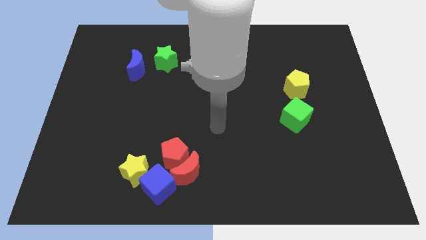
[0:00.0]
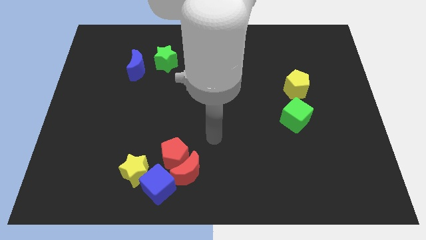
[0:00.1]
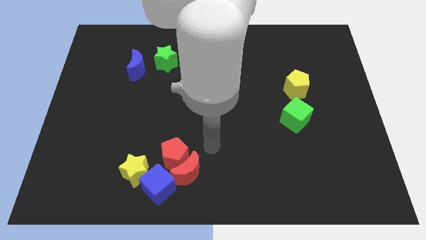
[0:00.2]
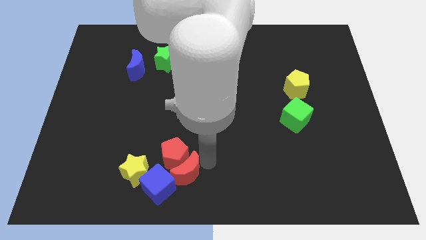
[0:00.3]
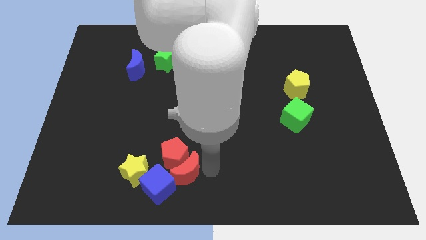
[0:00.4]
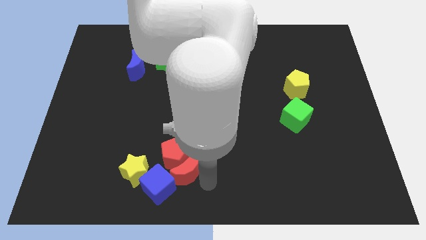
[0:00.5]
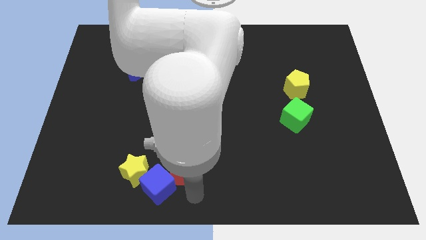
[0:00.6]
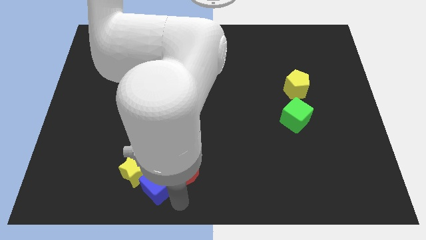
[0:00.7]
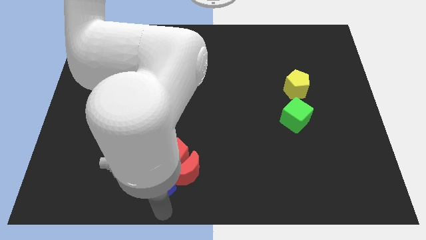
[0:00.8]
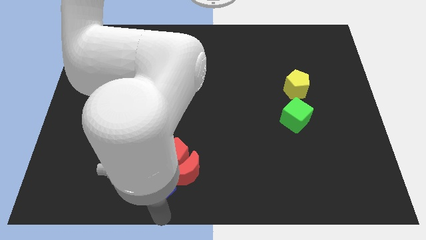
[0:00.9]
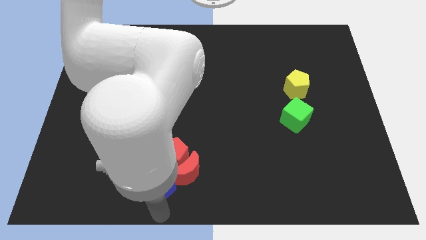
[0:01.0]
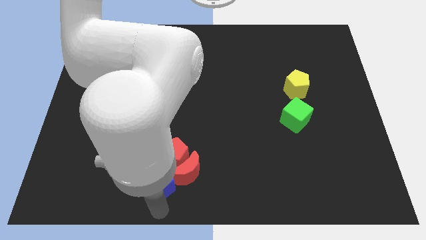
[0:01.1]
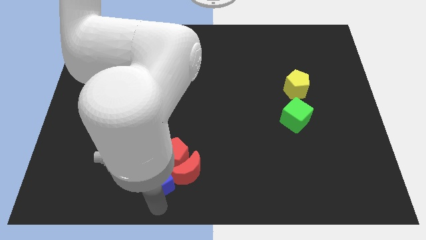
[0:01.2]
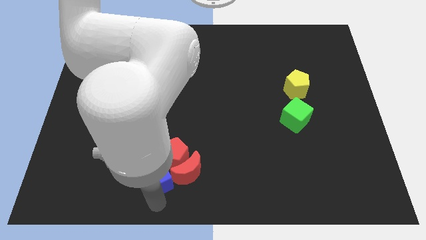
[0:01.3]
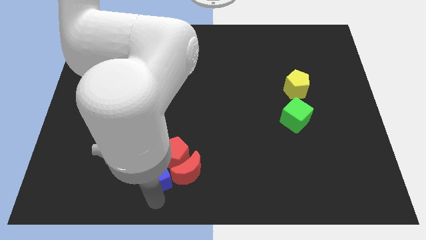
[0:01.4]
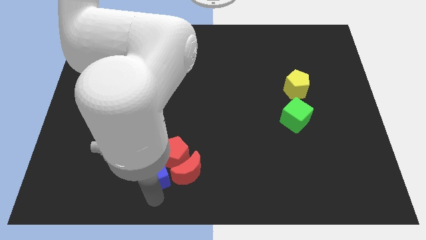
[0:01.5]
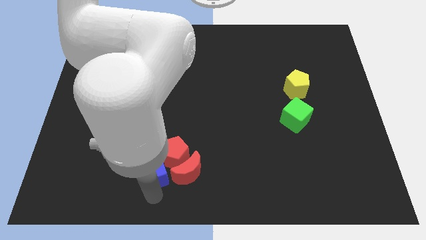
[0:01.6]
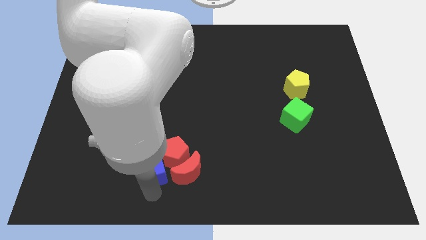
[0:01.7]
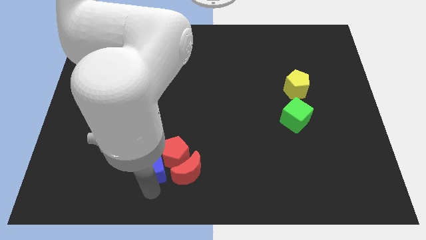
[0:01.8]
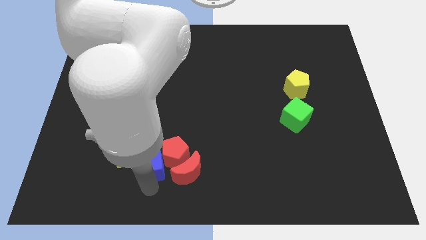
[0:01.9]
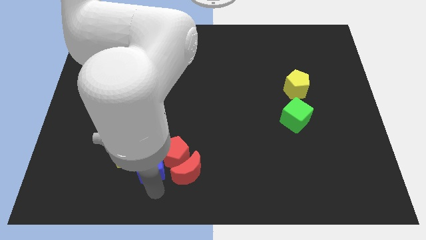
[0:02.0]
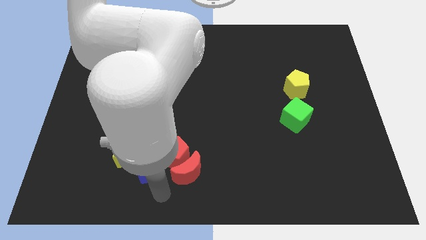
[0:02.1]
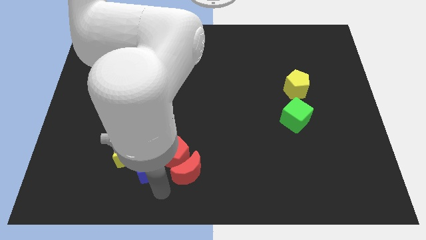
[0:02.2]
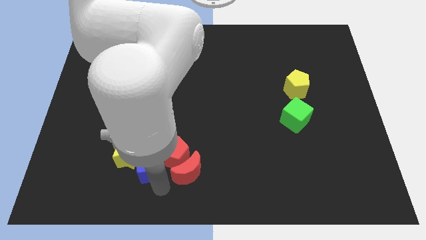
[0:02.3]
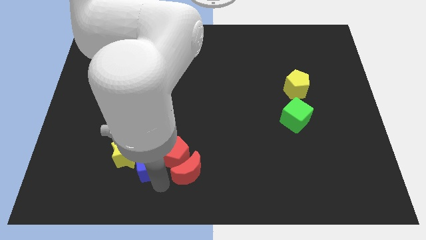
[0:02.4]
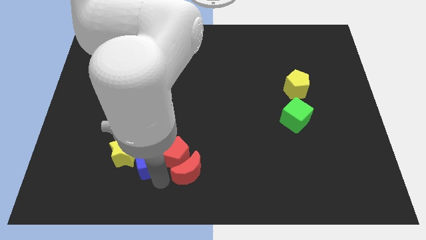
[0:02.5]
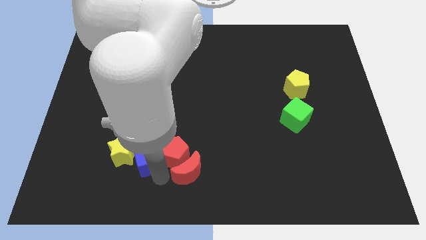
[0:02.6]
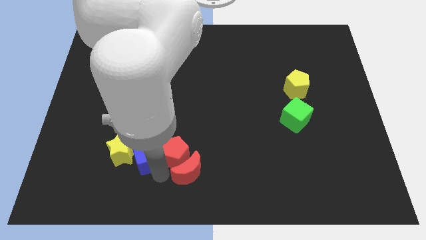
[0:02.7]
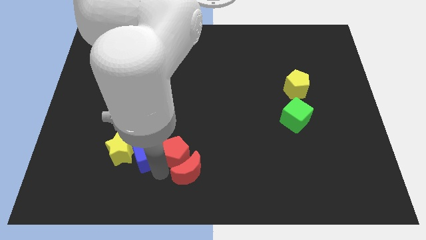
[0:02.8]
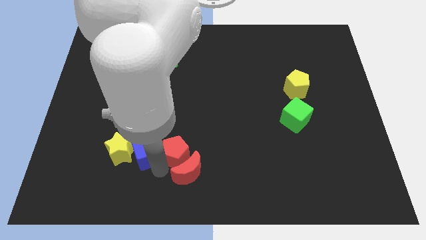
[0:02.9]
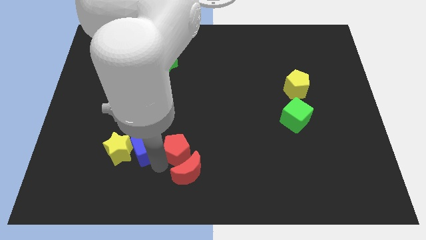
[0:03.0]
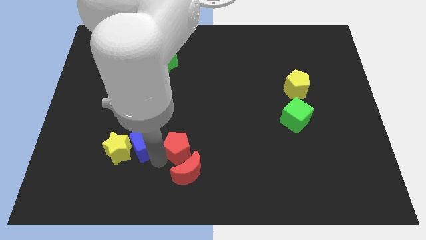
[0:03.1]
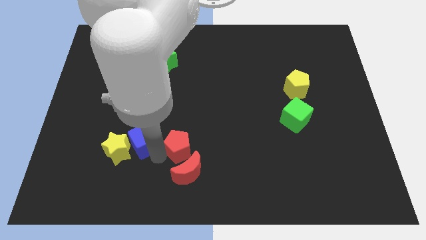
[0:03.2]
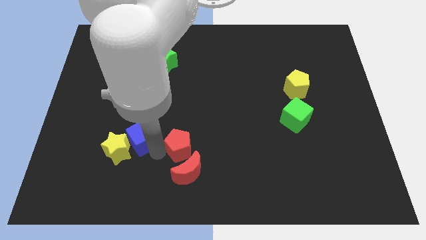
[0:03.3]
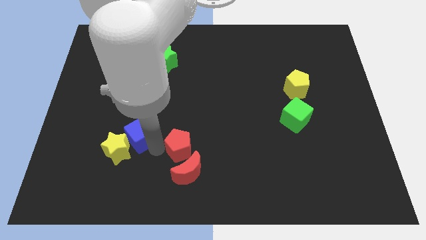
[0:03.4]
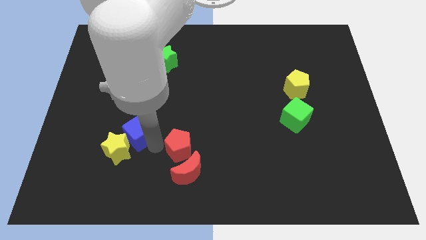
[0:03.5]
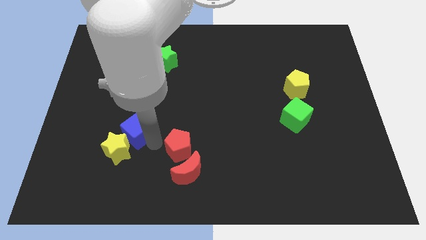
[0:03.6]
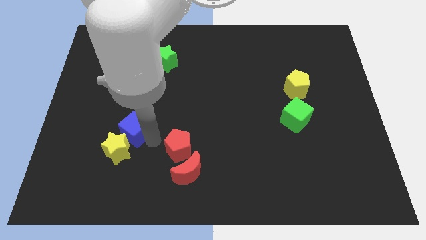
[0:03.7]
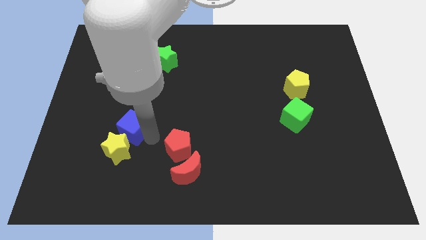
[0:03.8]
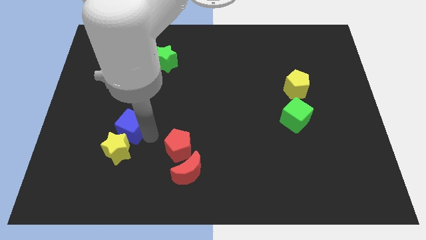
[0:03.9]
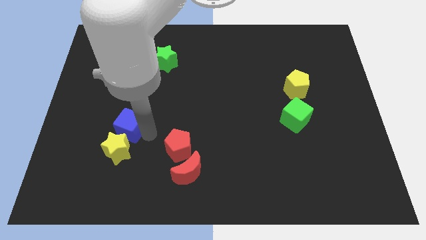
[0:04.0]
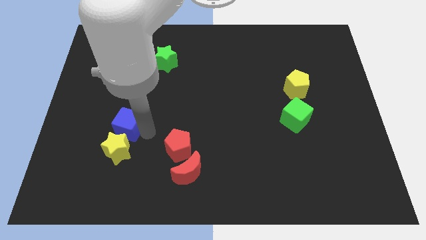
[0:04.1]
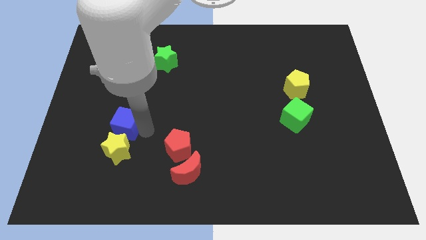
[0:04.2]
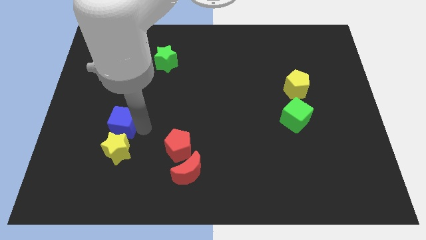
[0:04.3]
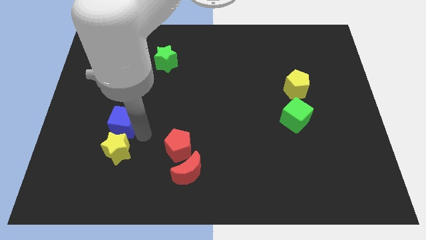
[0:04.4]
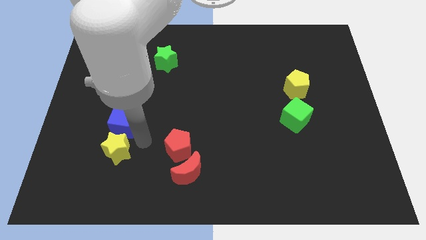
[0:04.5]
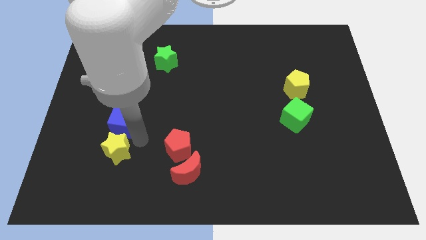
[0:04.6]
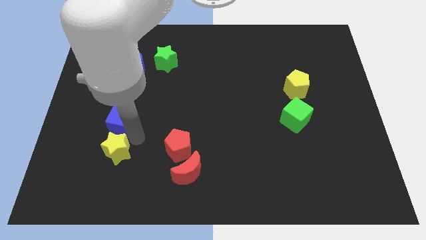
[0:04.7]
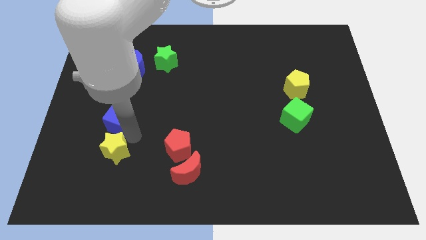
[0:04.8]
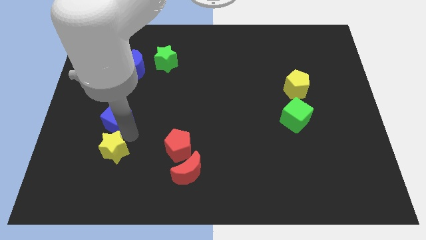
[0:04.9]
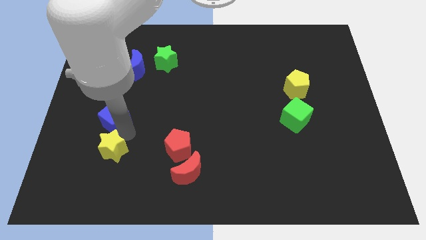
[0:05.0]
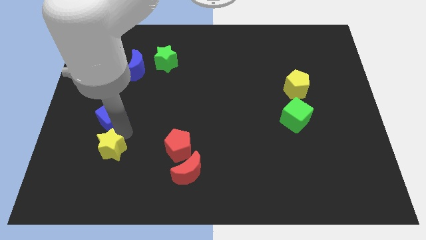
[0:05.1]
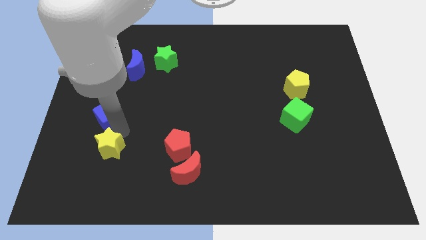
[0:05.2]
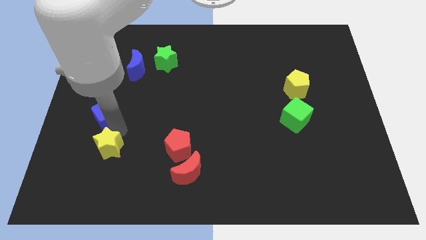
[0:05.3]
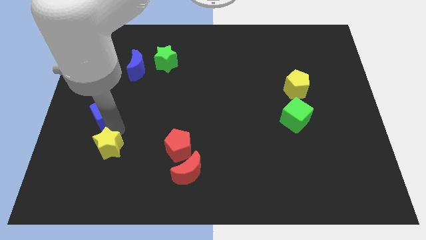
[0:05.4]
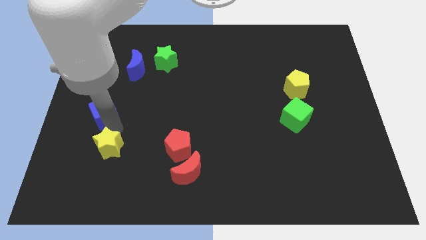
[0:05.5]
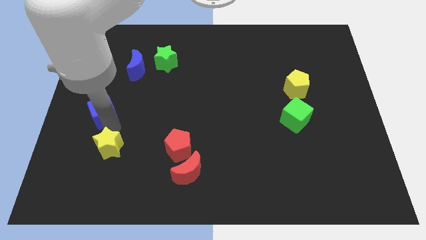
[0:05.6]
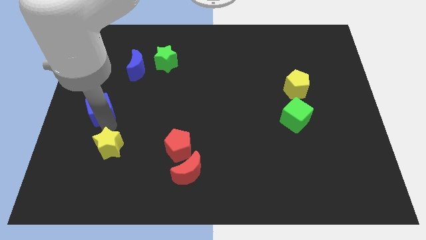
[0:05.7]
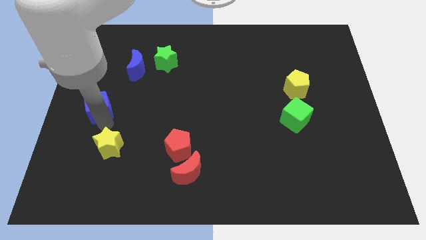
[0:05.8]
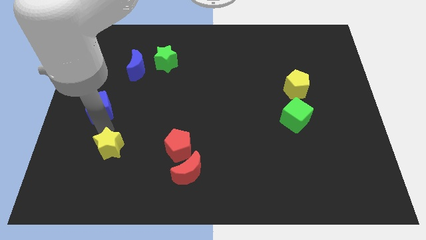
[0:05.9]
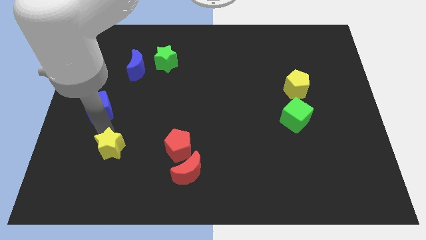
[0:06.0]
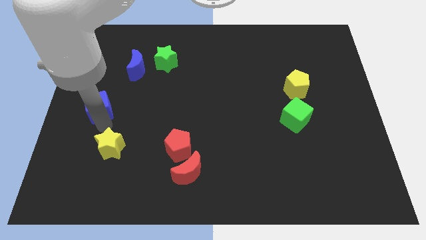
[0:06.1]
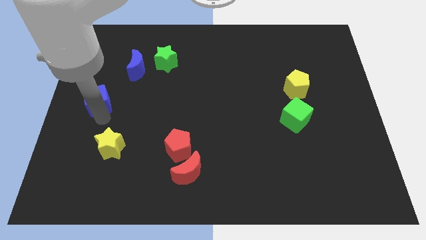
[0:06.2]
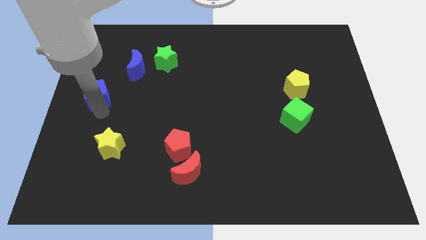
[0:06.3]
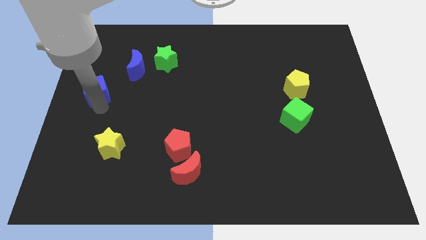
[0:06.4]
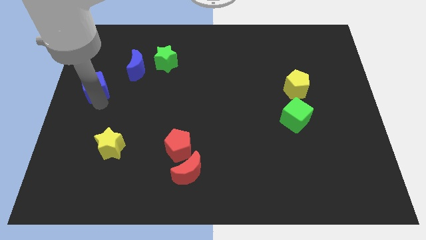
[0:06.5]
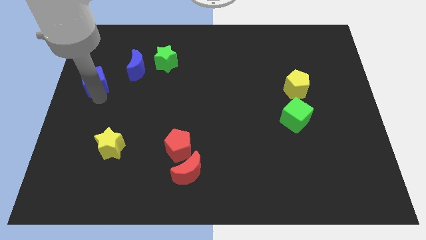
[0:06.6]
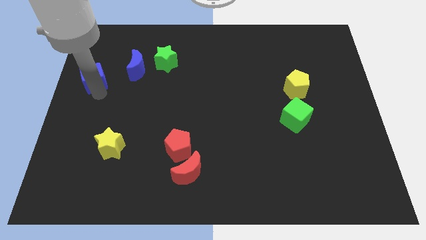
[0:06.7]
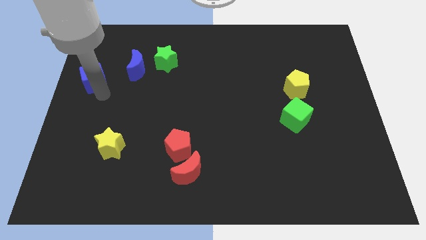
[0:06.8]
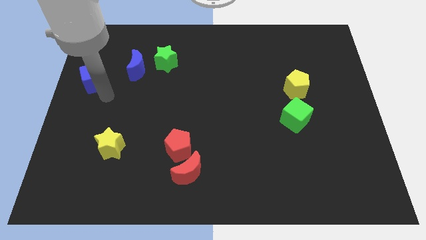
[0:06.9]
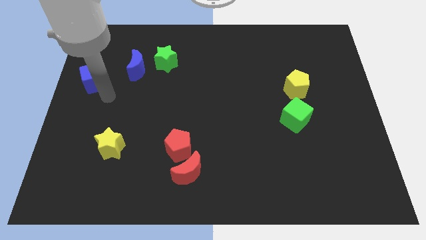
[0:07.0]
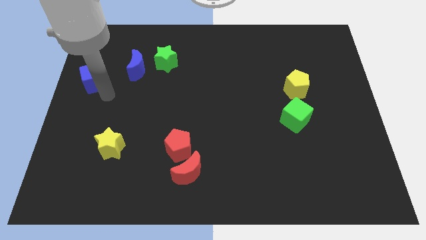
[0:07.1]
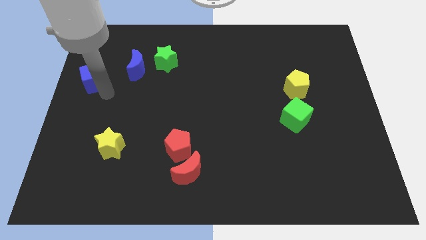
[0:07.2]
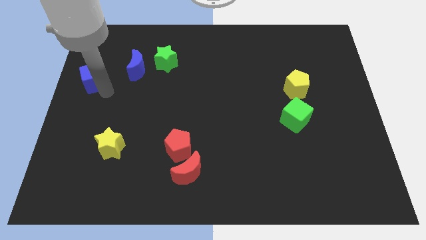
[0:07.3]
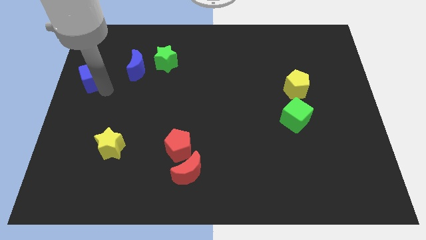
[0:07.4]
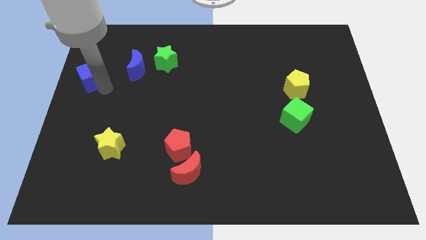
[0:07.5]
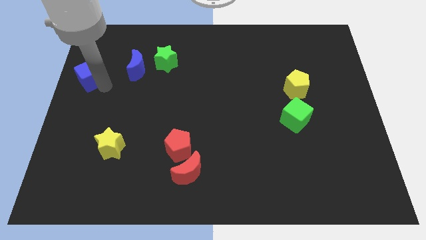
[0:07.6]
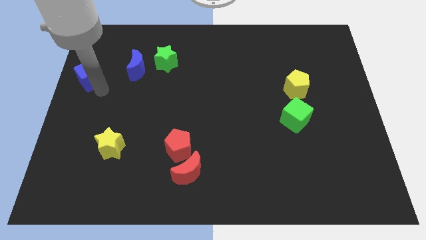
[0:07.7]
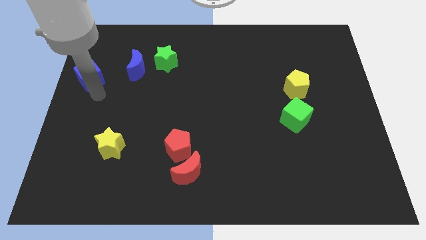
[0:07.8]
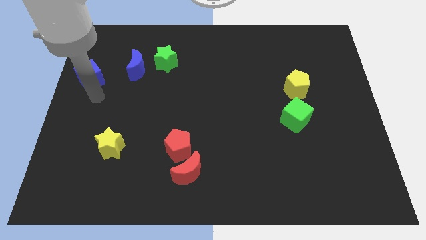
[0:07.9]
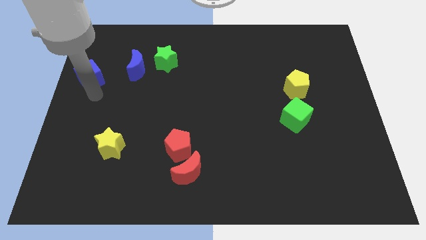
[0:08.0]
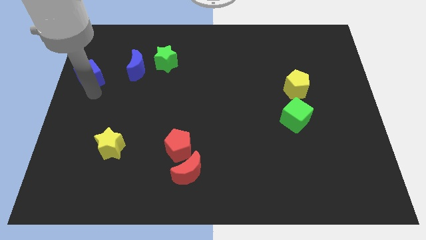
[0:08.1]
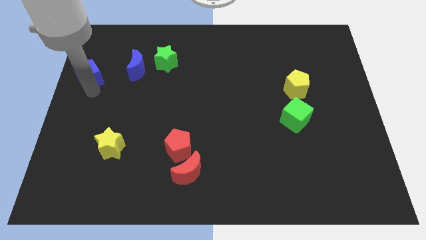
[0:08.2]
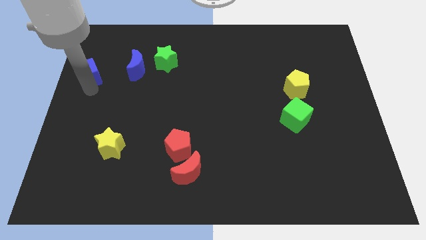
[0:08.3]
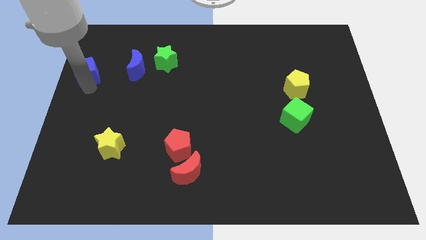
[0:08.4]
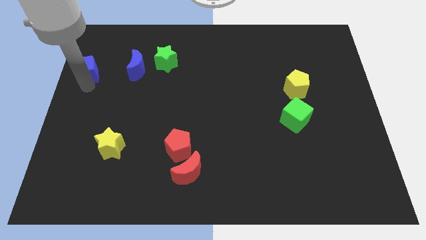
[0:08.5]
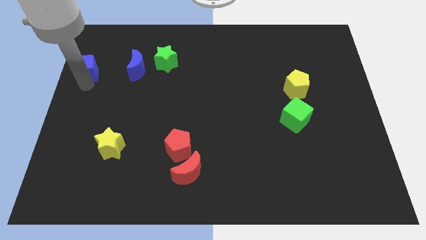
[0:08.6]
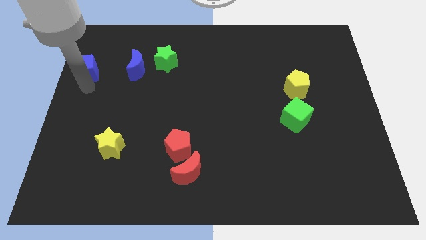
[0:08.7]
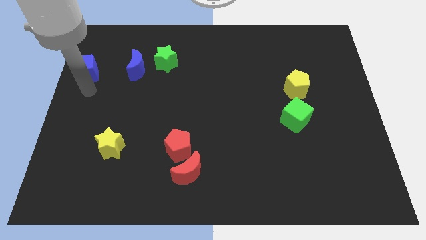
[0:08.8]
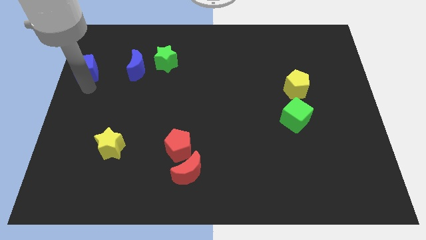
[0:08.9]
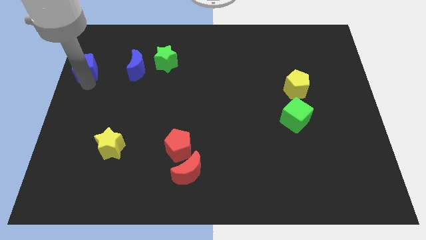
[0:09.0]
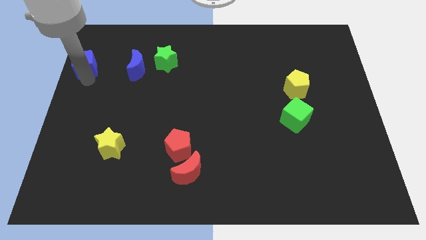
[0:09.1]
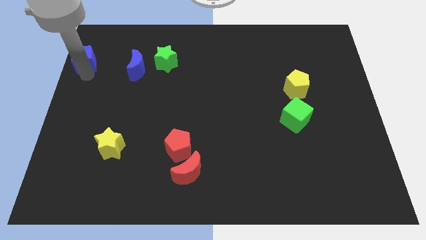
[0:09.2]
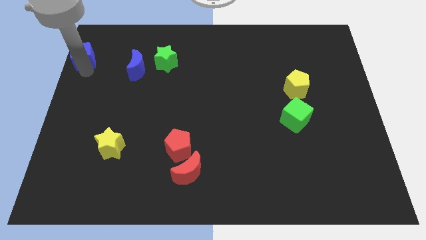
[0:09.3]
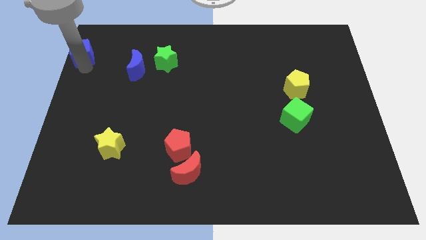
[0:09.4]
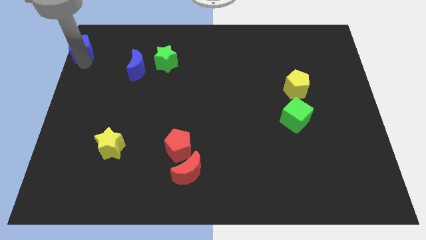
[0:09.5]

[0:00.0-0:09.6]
put the blue cube to the top left
